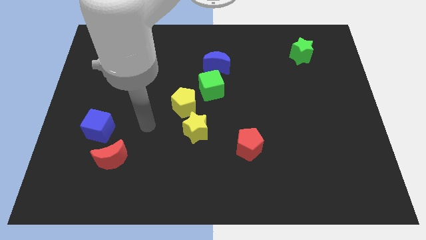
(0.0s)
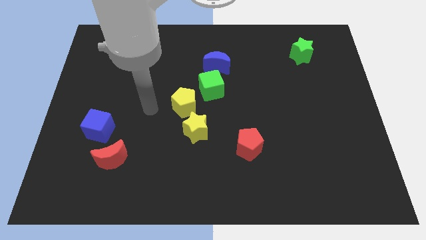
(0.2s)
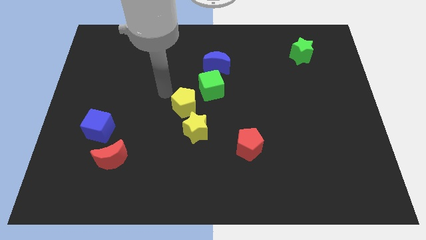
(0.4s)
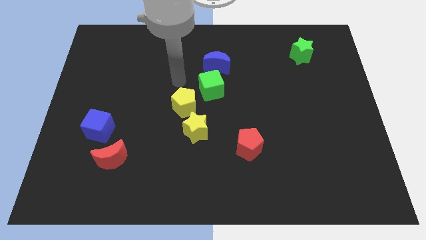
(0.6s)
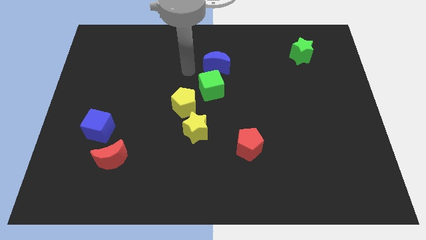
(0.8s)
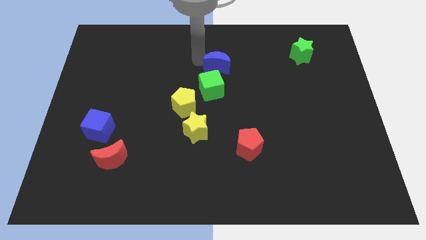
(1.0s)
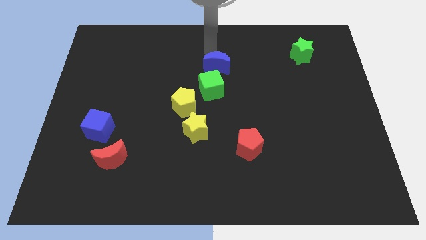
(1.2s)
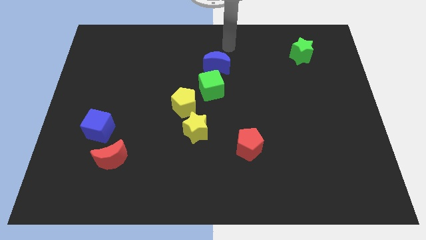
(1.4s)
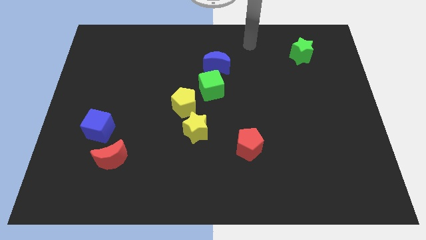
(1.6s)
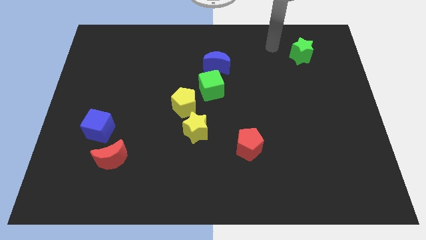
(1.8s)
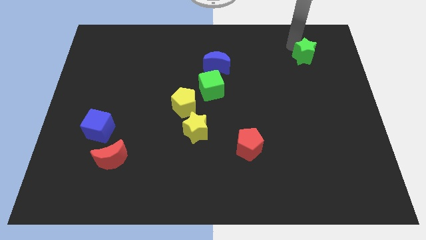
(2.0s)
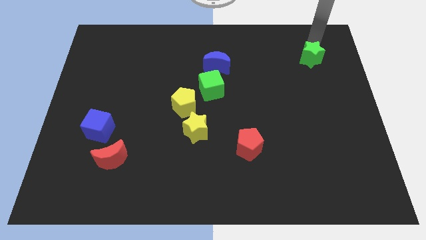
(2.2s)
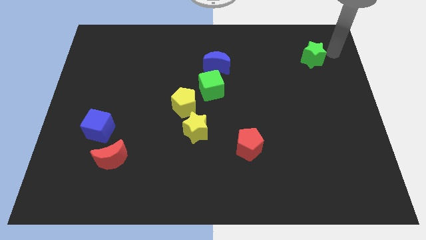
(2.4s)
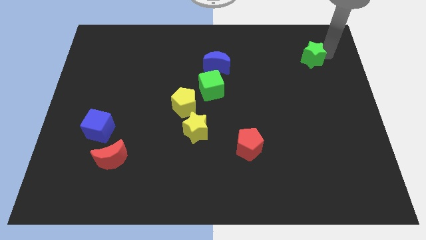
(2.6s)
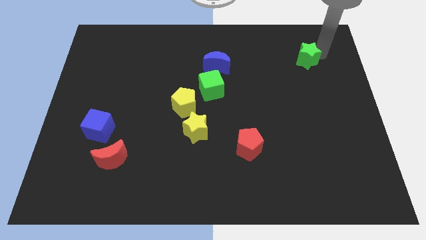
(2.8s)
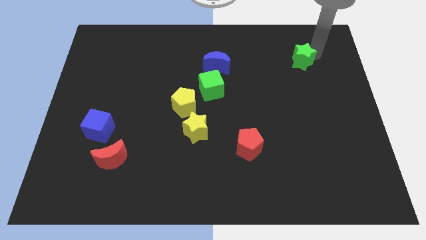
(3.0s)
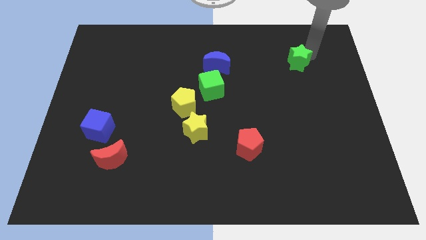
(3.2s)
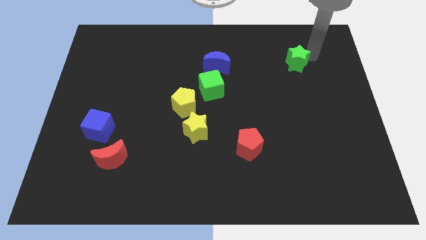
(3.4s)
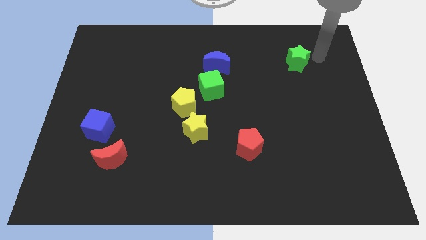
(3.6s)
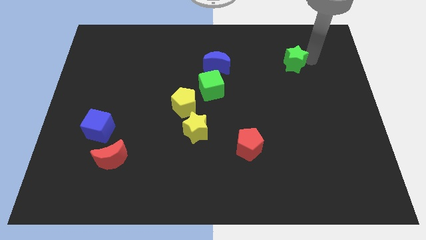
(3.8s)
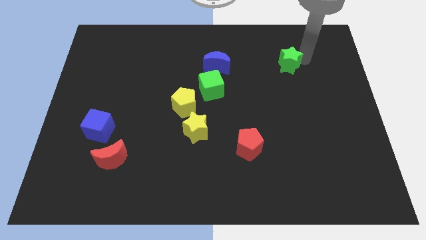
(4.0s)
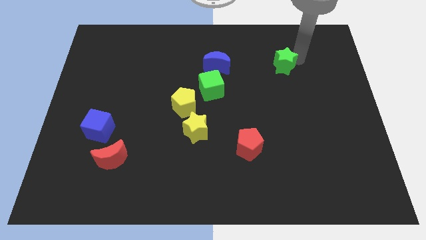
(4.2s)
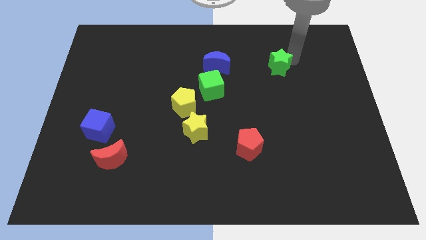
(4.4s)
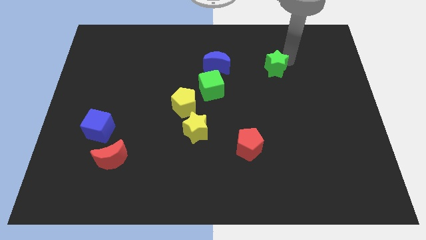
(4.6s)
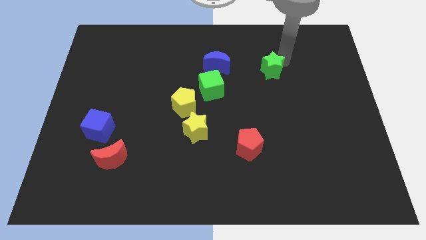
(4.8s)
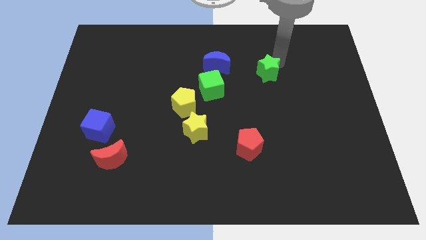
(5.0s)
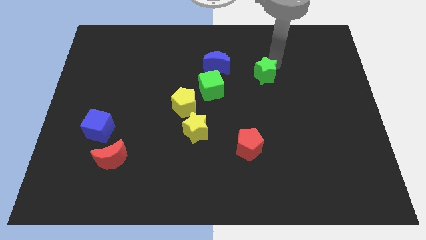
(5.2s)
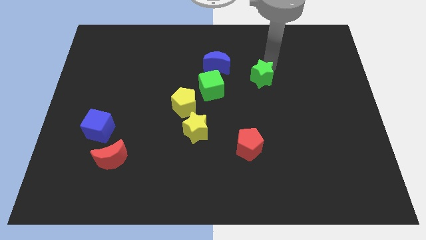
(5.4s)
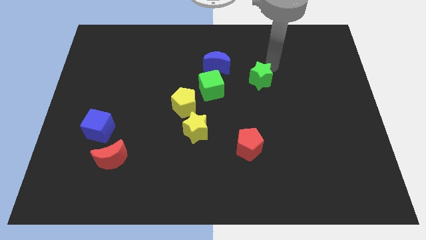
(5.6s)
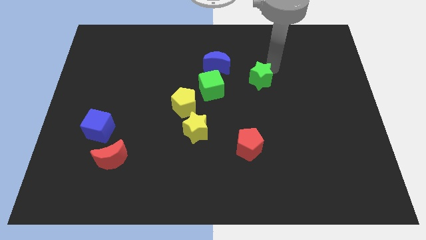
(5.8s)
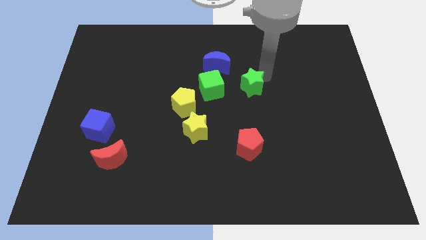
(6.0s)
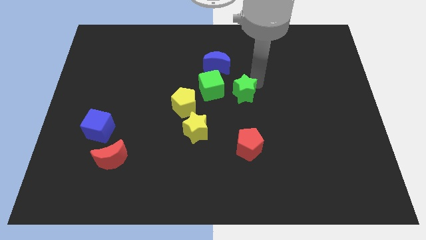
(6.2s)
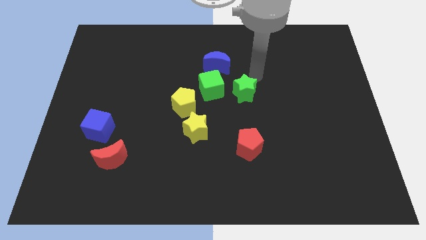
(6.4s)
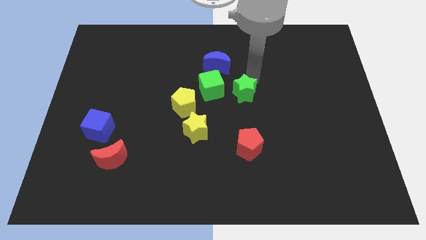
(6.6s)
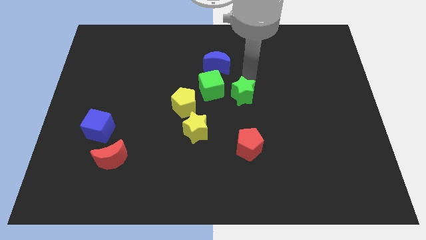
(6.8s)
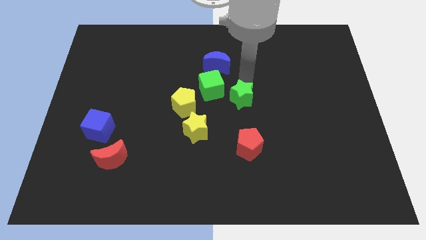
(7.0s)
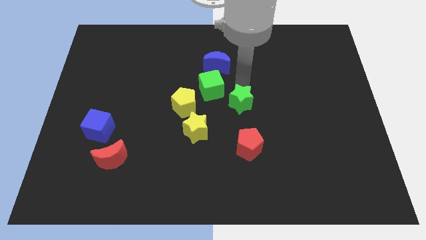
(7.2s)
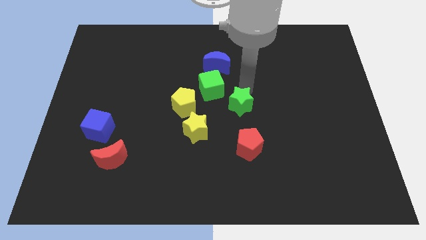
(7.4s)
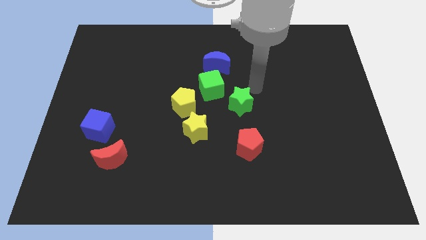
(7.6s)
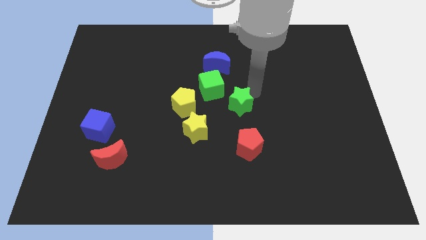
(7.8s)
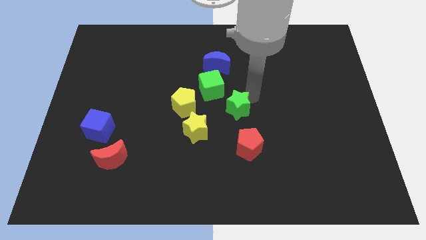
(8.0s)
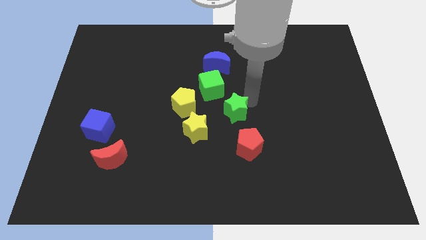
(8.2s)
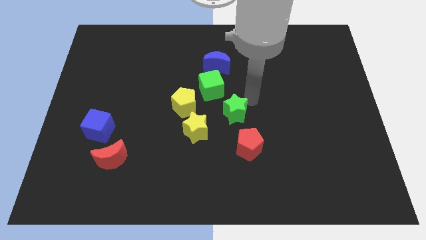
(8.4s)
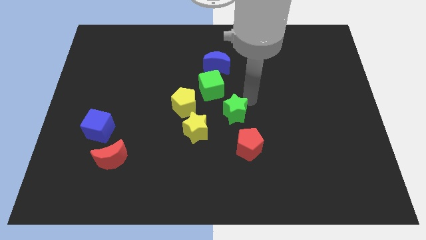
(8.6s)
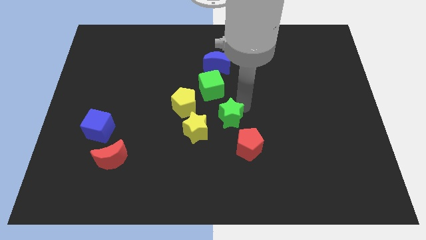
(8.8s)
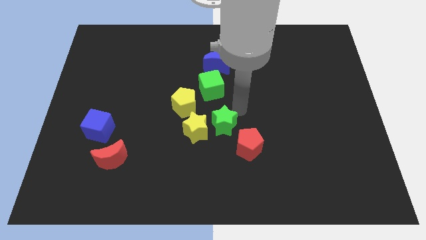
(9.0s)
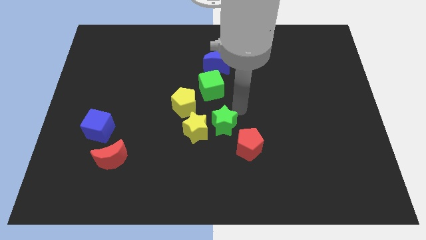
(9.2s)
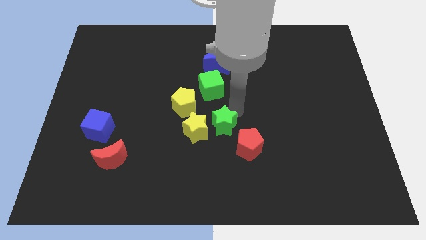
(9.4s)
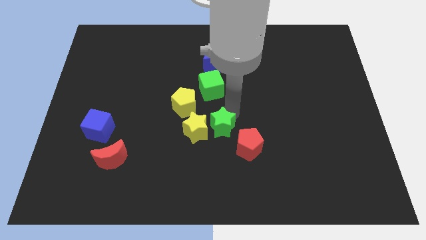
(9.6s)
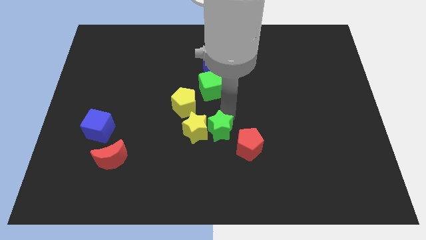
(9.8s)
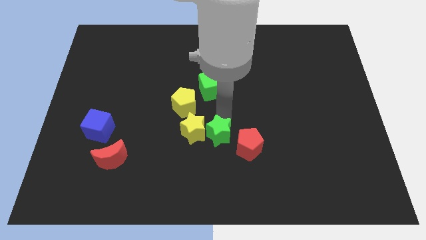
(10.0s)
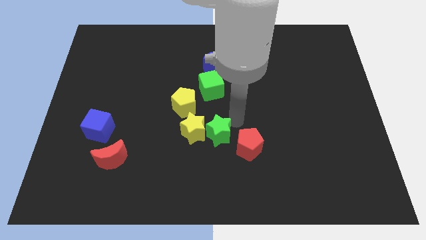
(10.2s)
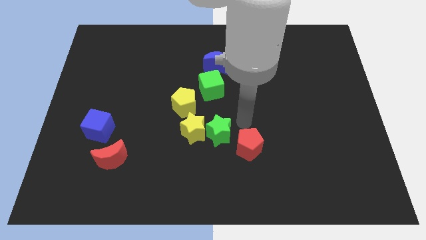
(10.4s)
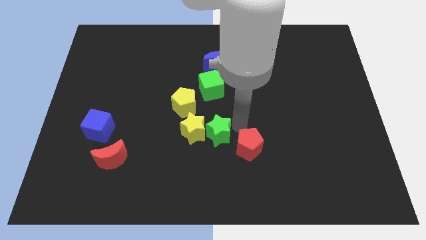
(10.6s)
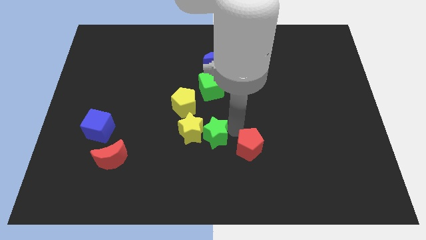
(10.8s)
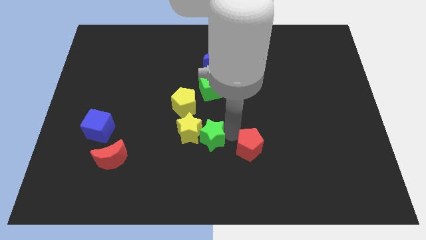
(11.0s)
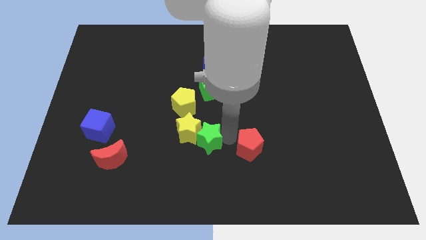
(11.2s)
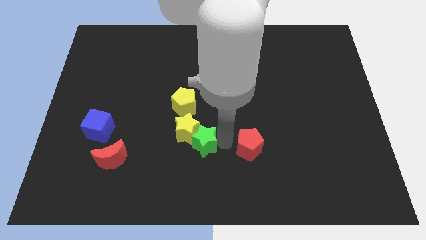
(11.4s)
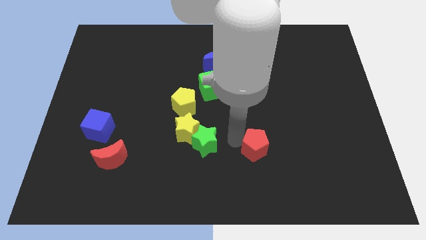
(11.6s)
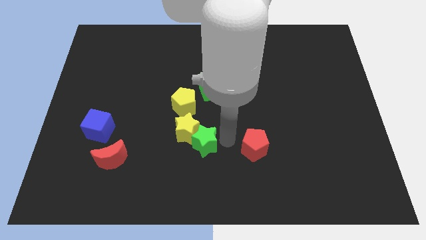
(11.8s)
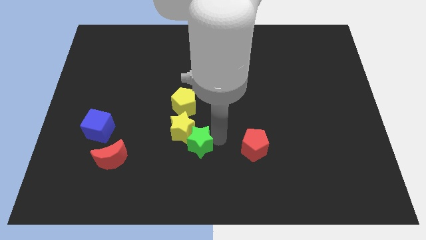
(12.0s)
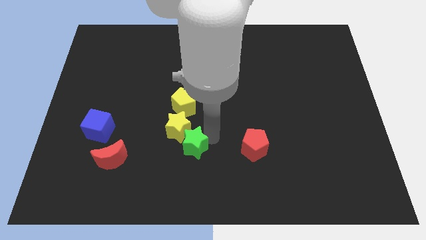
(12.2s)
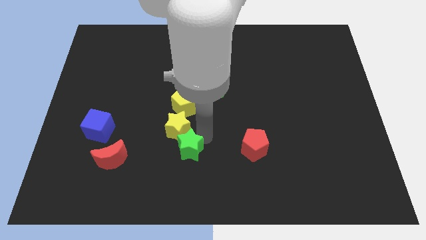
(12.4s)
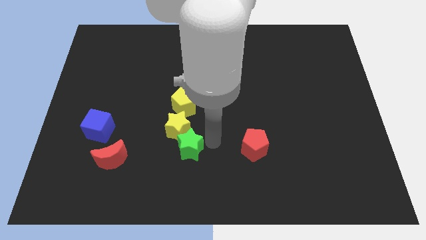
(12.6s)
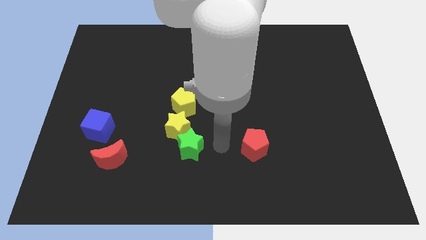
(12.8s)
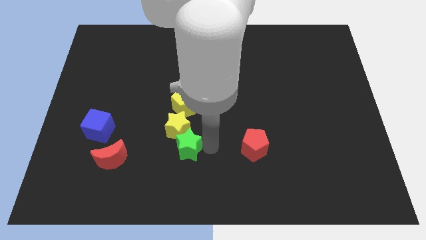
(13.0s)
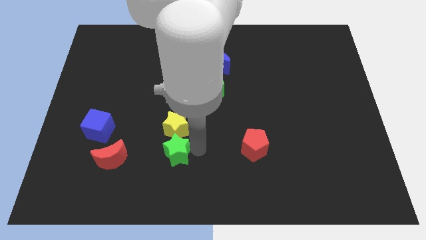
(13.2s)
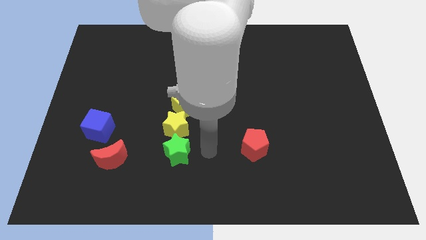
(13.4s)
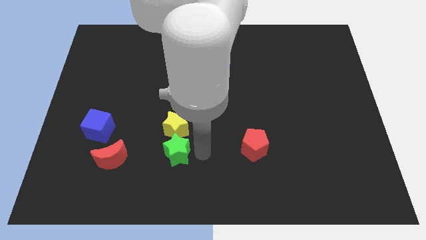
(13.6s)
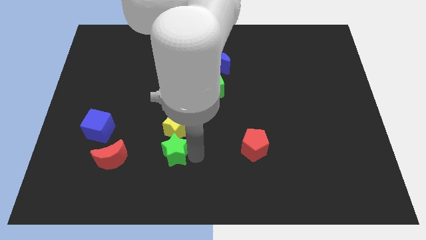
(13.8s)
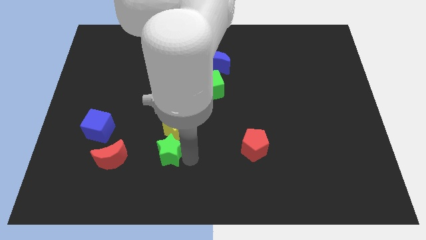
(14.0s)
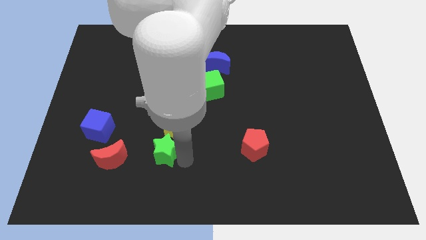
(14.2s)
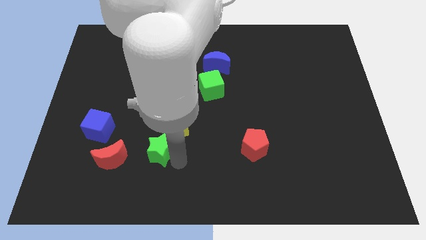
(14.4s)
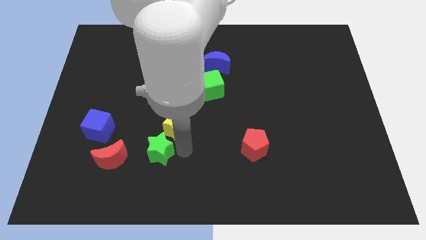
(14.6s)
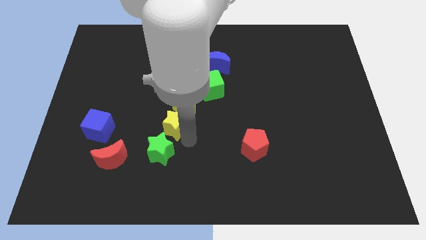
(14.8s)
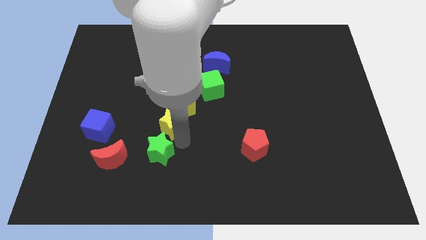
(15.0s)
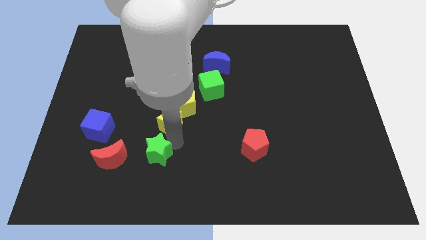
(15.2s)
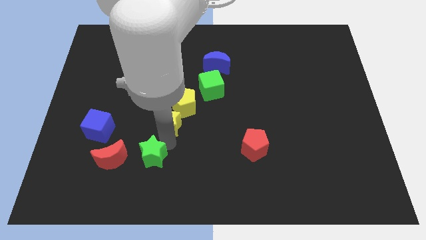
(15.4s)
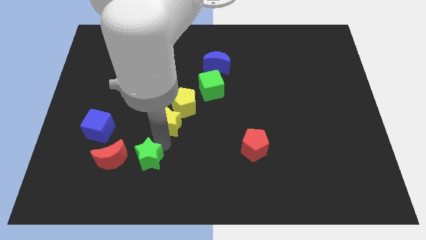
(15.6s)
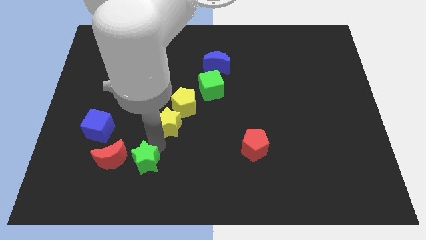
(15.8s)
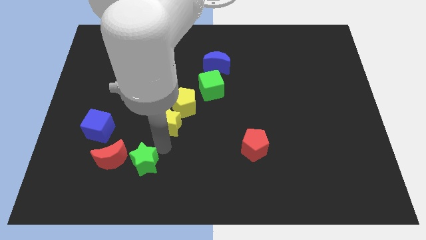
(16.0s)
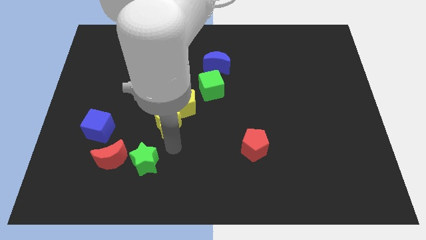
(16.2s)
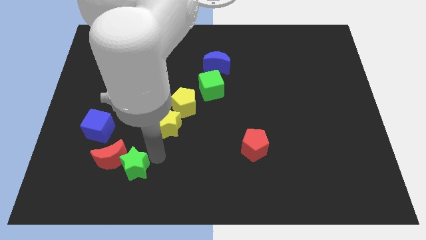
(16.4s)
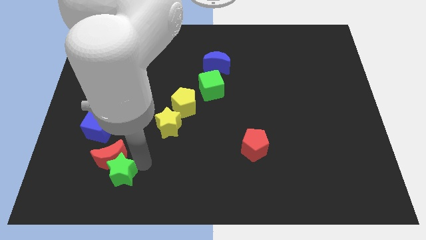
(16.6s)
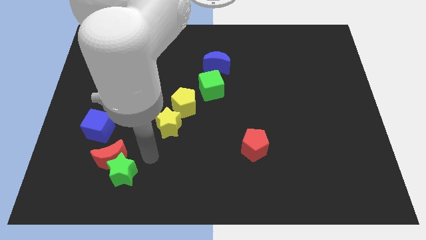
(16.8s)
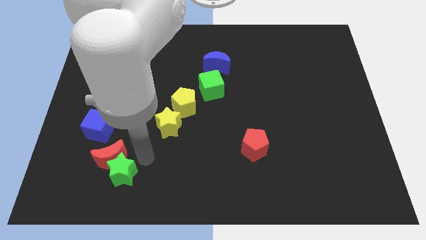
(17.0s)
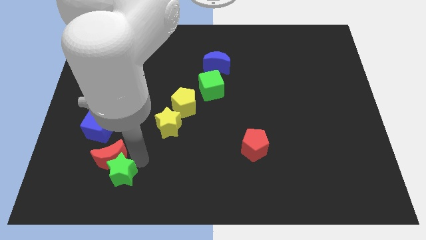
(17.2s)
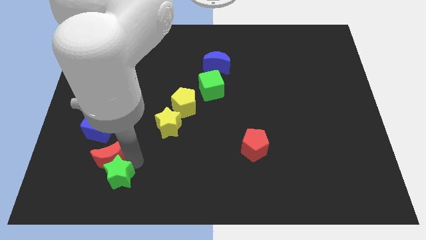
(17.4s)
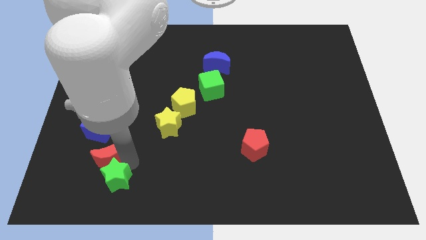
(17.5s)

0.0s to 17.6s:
put the green star diagonally down and to the left of the red moon
